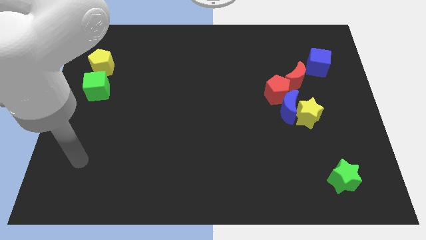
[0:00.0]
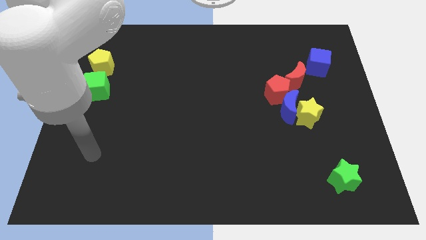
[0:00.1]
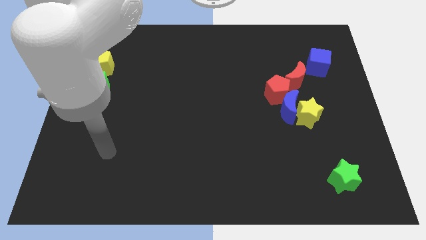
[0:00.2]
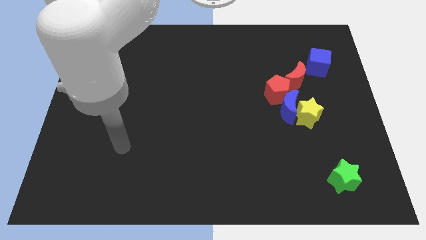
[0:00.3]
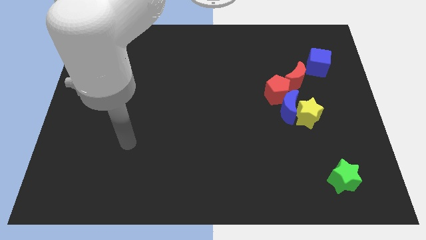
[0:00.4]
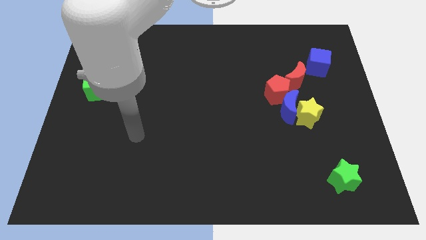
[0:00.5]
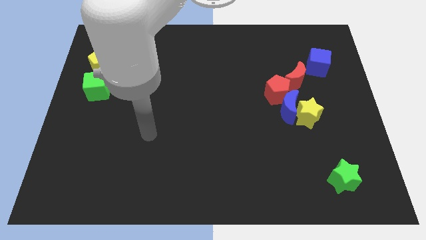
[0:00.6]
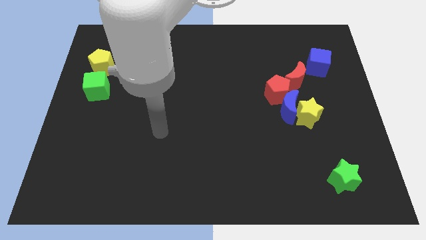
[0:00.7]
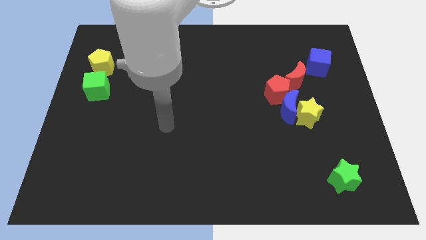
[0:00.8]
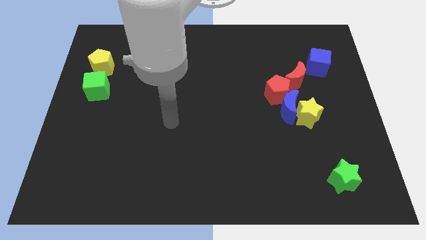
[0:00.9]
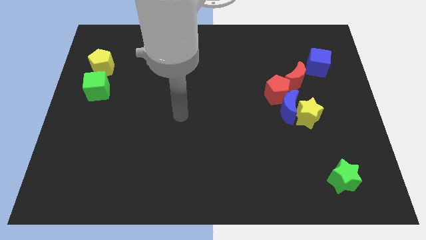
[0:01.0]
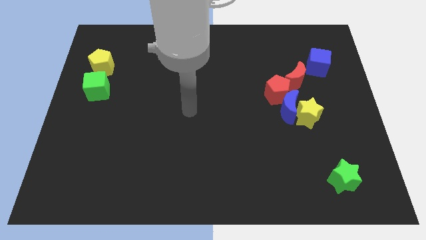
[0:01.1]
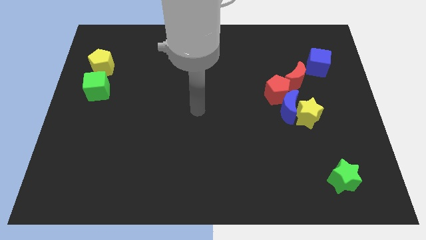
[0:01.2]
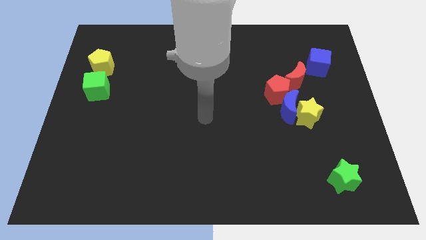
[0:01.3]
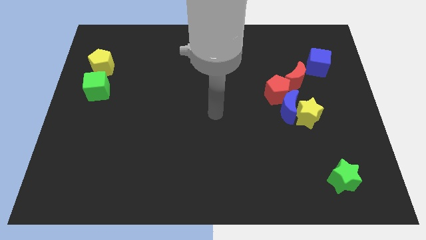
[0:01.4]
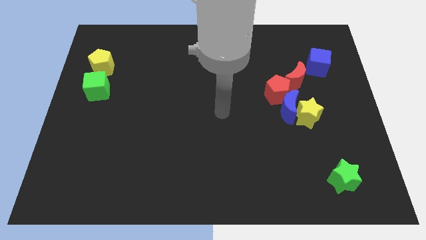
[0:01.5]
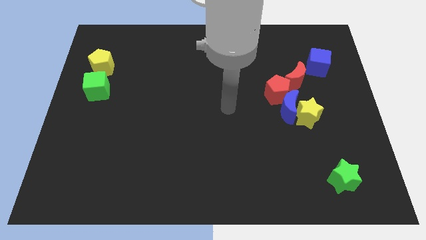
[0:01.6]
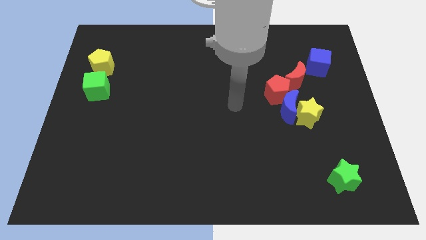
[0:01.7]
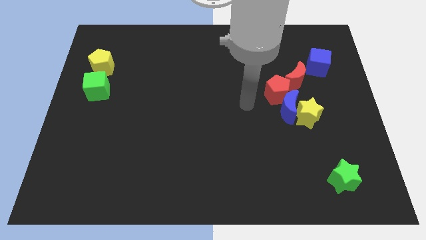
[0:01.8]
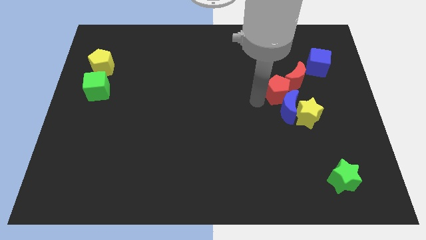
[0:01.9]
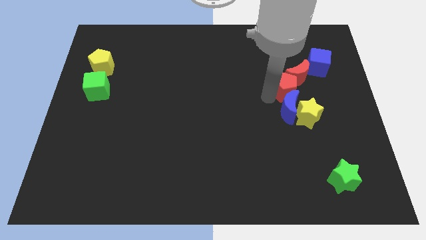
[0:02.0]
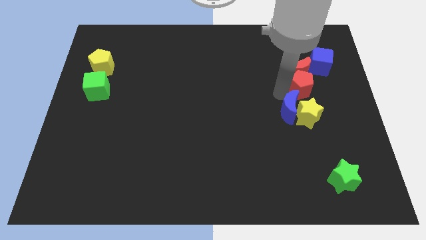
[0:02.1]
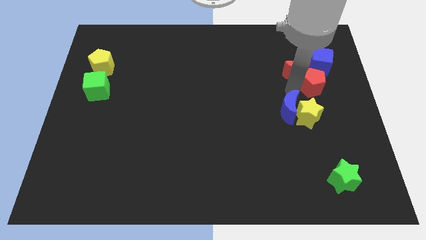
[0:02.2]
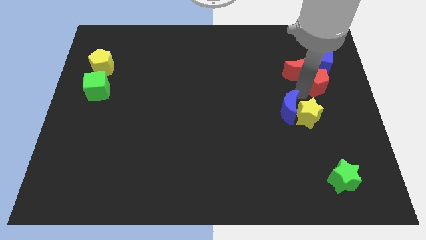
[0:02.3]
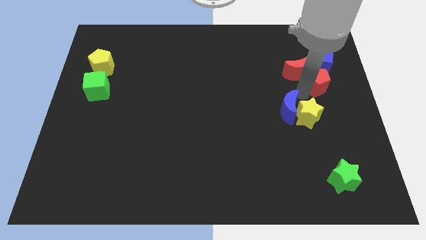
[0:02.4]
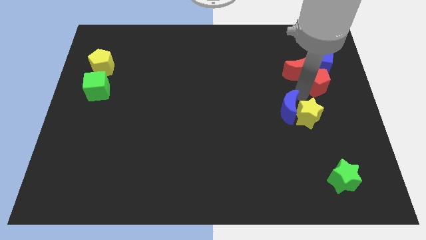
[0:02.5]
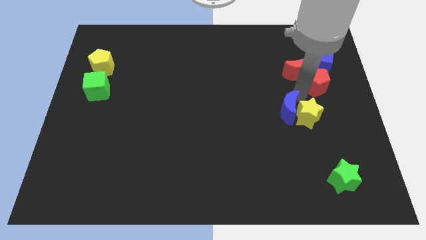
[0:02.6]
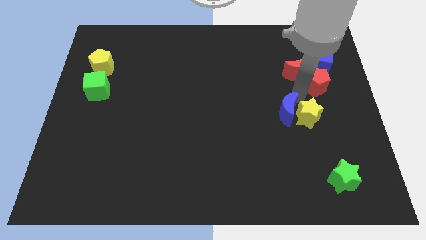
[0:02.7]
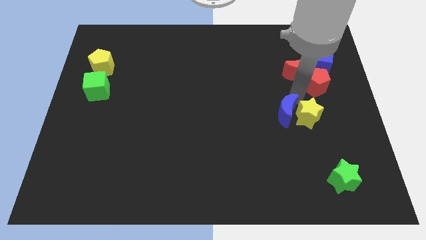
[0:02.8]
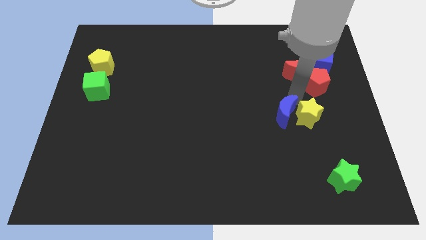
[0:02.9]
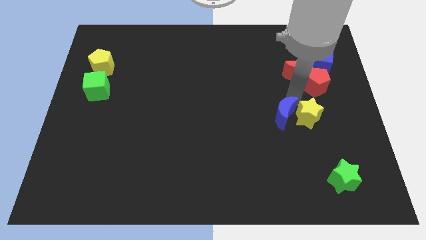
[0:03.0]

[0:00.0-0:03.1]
pull the blue moon apart from the yellow star, red pentagon, and red moon

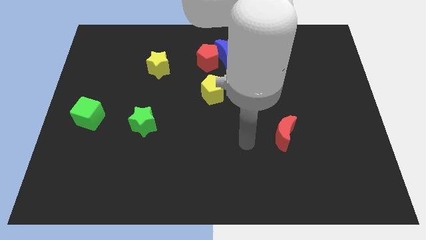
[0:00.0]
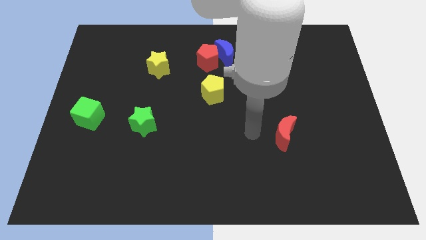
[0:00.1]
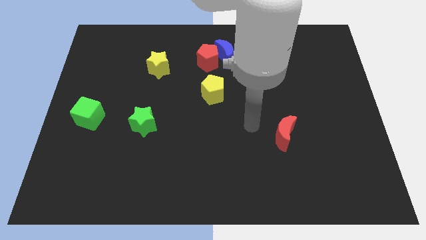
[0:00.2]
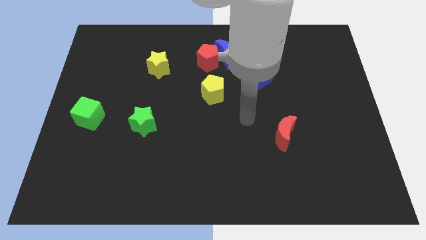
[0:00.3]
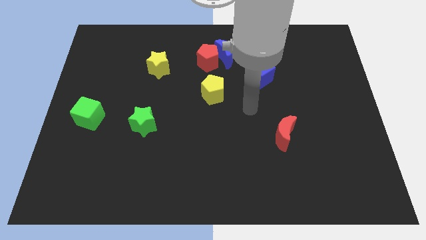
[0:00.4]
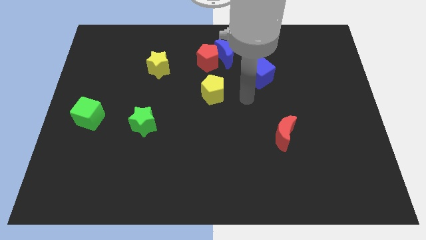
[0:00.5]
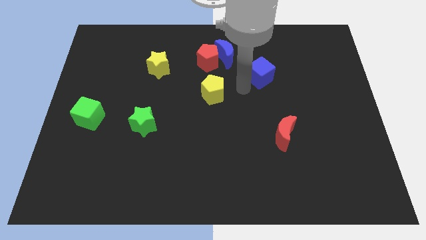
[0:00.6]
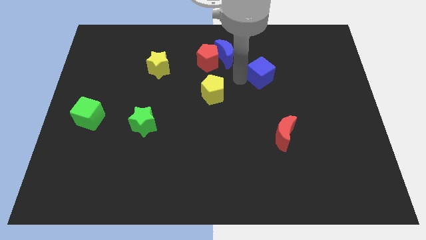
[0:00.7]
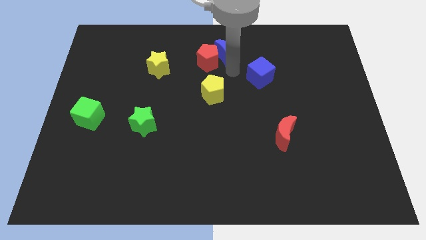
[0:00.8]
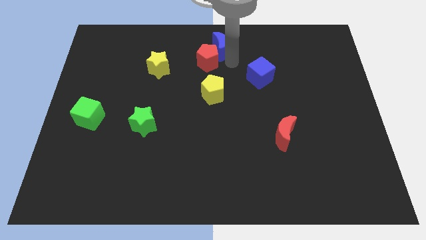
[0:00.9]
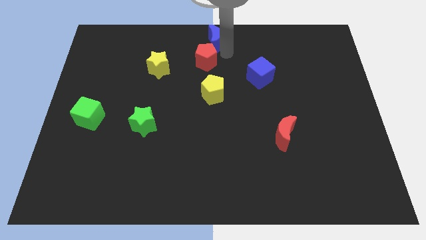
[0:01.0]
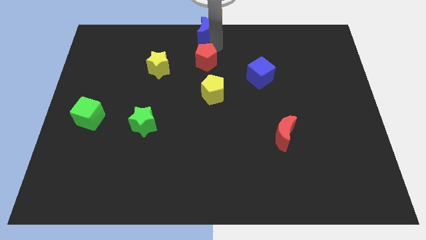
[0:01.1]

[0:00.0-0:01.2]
move the red pentagon away from the blue moon

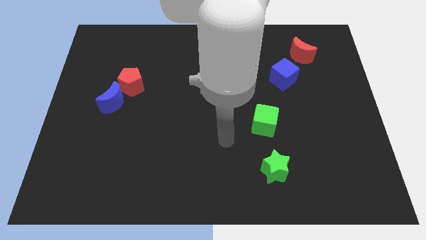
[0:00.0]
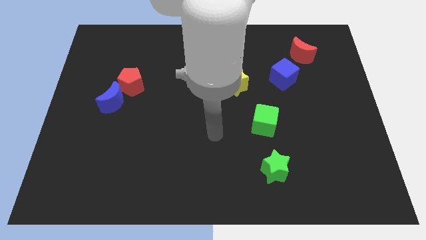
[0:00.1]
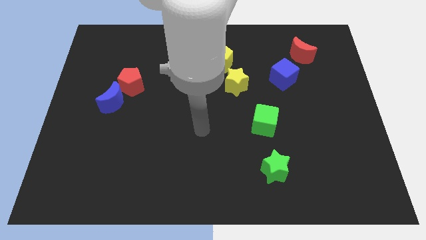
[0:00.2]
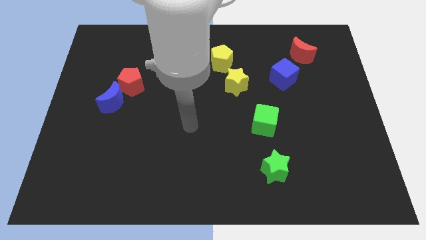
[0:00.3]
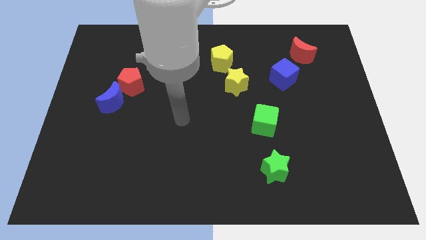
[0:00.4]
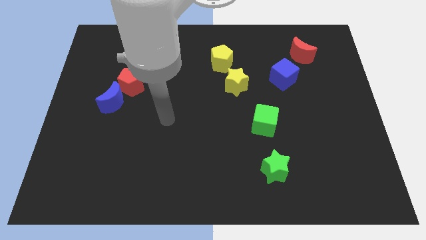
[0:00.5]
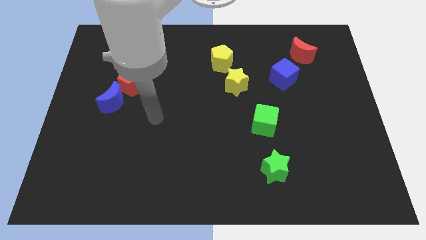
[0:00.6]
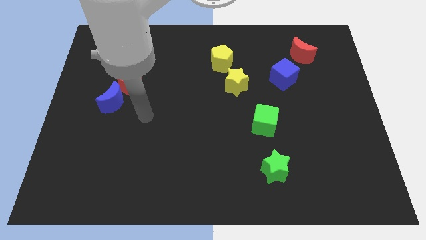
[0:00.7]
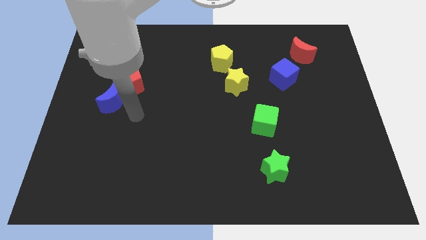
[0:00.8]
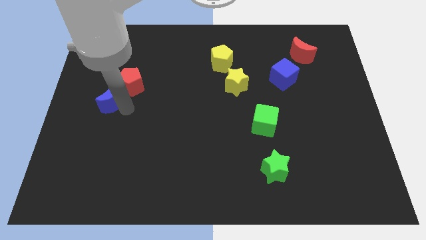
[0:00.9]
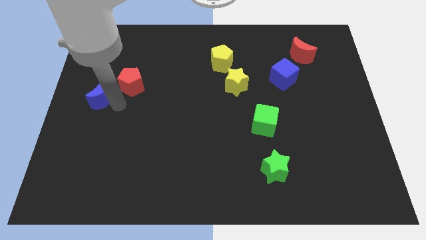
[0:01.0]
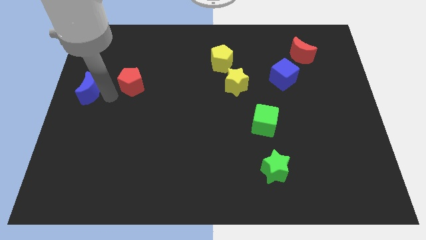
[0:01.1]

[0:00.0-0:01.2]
separate the red pentagon from the blue moon

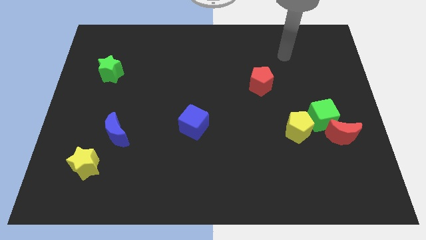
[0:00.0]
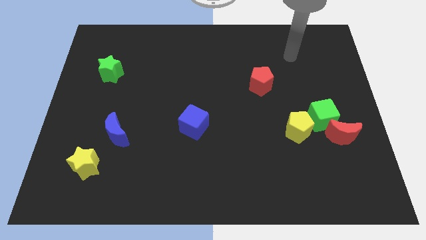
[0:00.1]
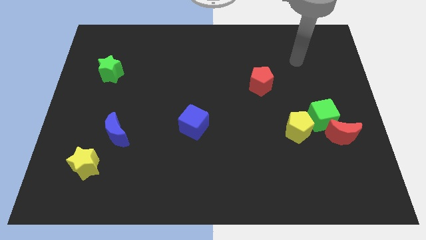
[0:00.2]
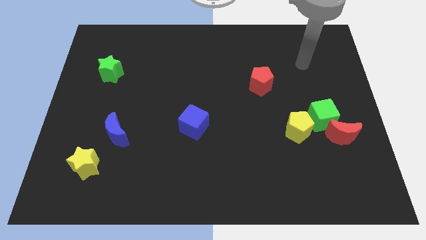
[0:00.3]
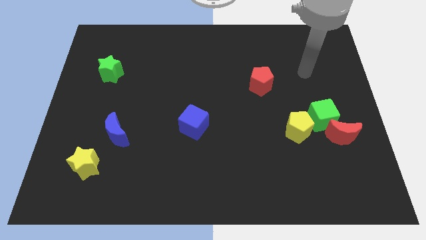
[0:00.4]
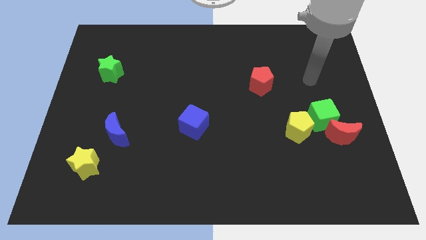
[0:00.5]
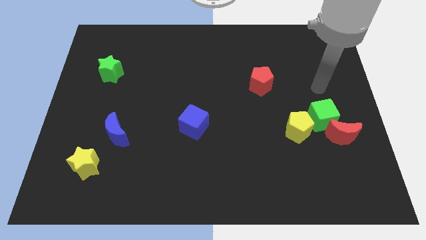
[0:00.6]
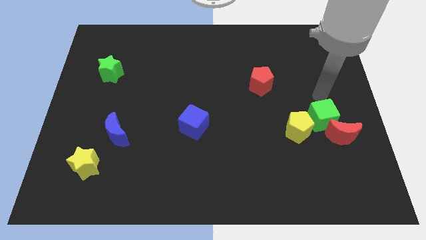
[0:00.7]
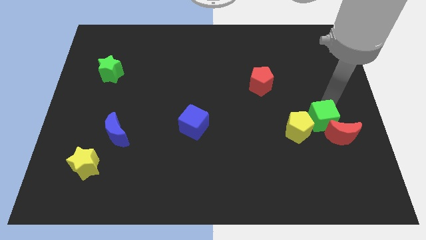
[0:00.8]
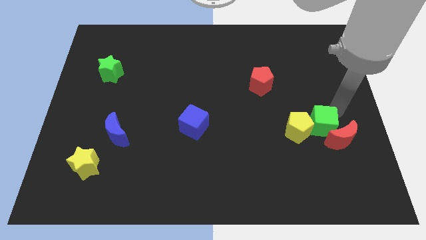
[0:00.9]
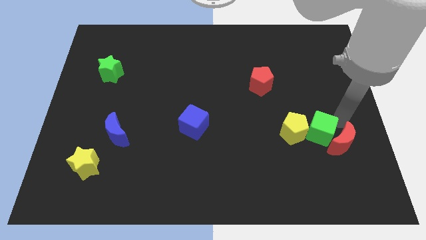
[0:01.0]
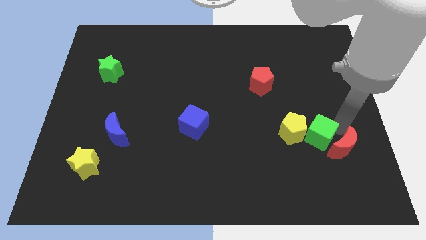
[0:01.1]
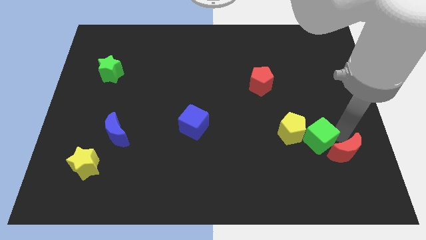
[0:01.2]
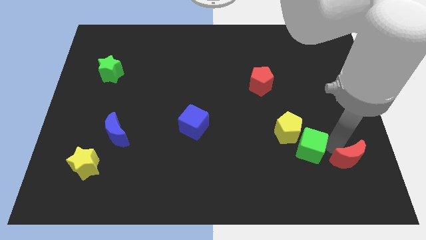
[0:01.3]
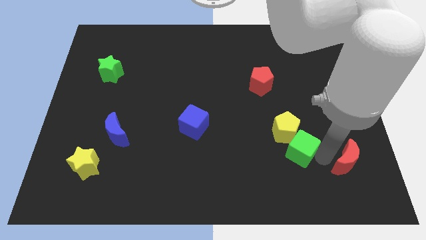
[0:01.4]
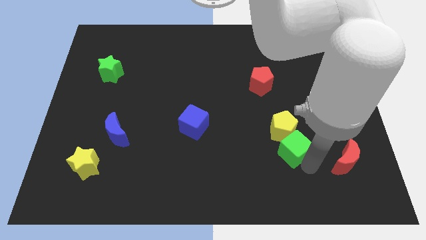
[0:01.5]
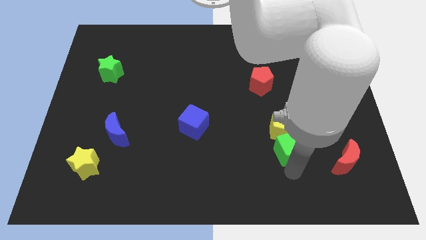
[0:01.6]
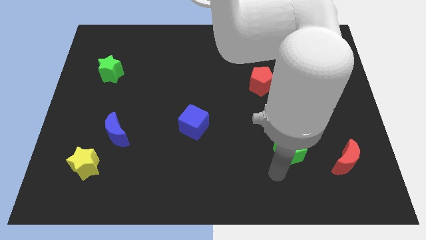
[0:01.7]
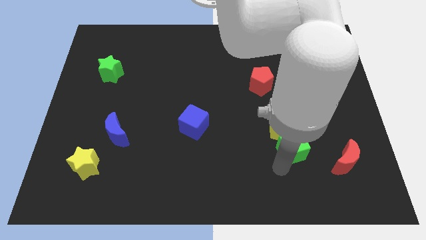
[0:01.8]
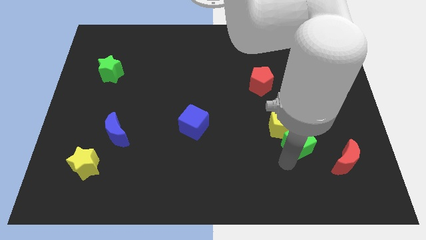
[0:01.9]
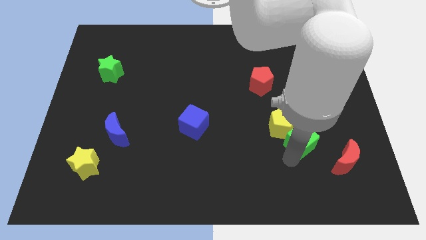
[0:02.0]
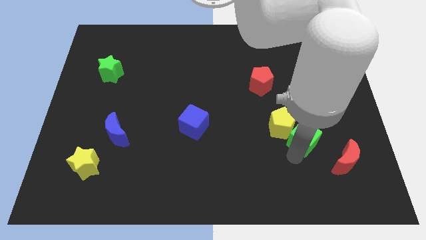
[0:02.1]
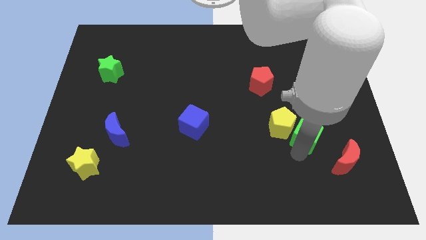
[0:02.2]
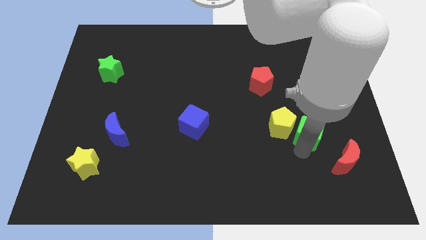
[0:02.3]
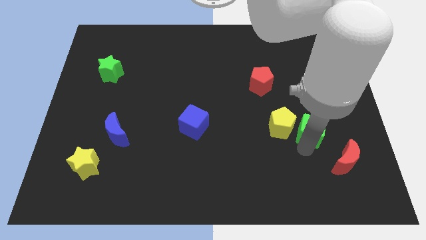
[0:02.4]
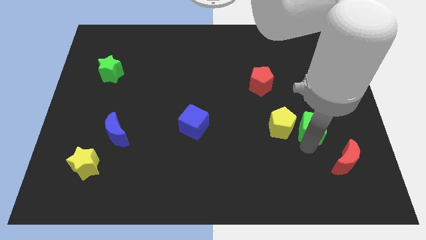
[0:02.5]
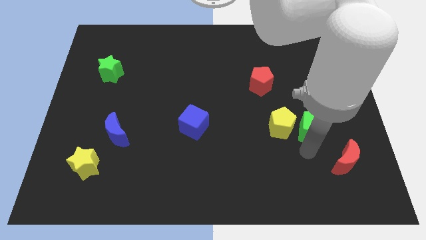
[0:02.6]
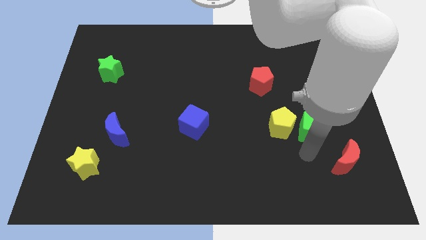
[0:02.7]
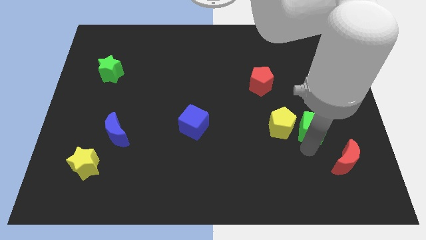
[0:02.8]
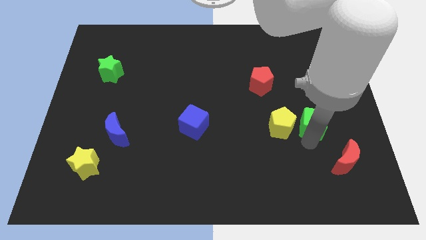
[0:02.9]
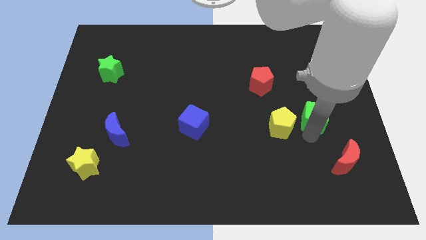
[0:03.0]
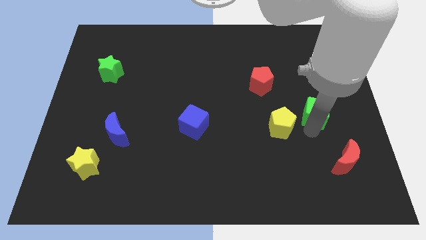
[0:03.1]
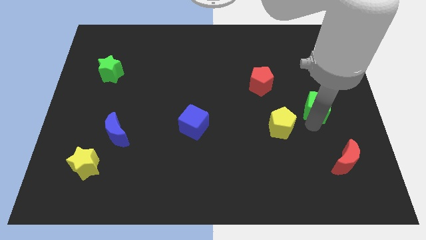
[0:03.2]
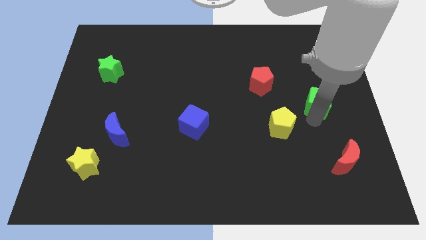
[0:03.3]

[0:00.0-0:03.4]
separate the green cube from the red moon and yellow pentagon

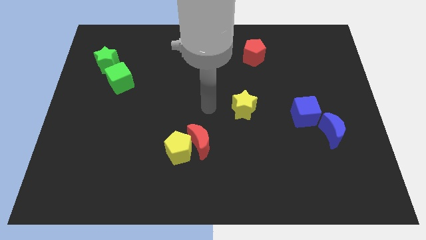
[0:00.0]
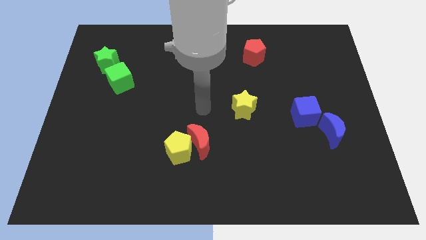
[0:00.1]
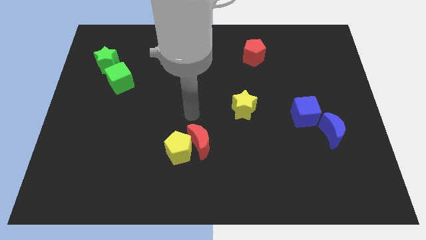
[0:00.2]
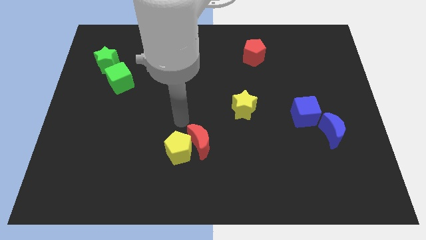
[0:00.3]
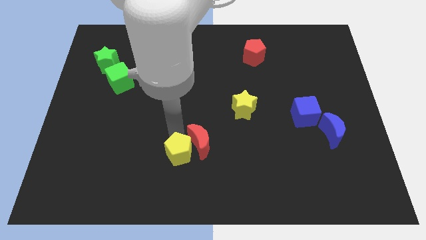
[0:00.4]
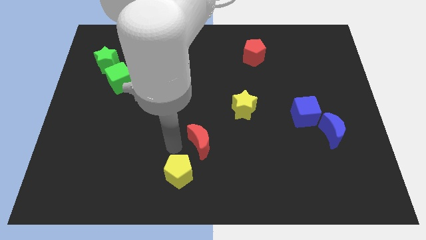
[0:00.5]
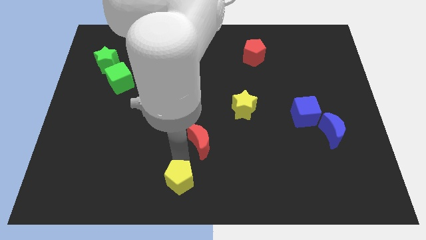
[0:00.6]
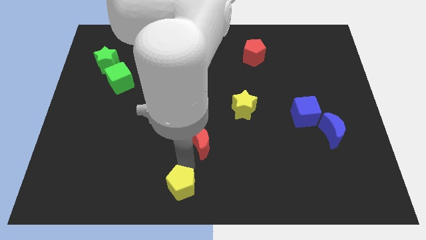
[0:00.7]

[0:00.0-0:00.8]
separate the red moon from the yellow pentagon
